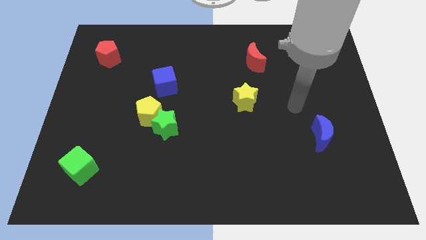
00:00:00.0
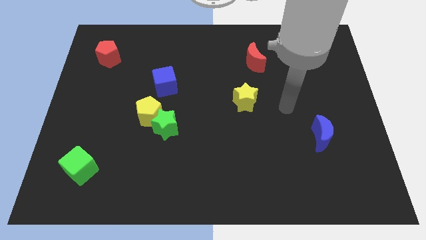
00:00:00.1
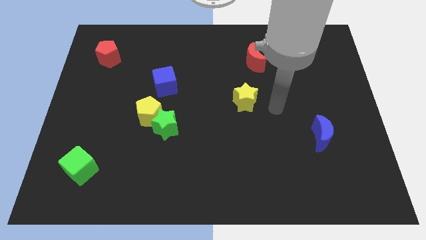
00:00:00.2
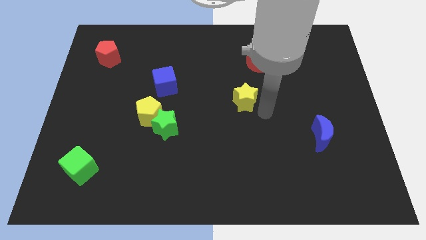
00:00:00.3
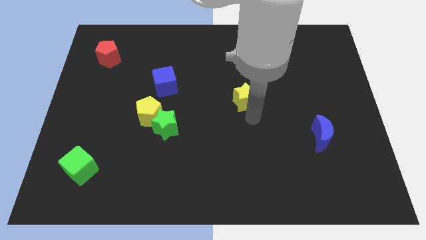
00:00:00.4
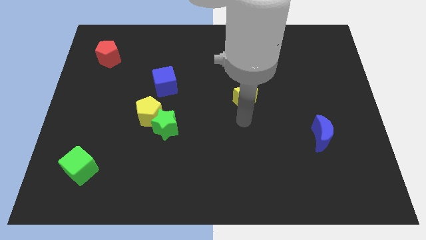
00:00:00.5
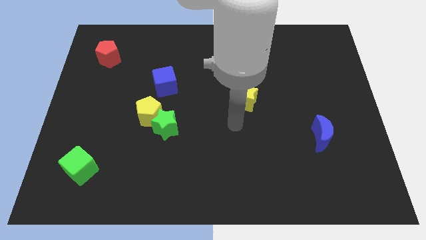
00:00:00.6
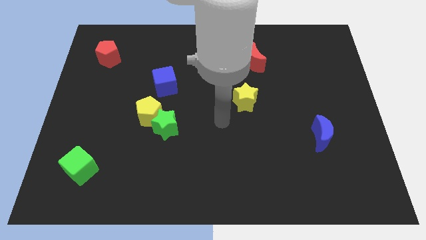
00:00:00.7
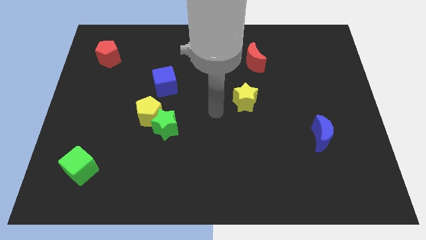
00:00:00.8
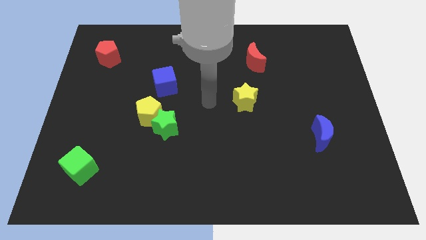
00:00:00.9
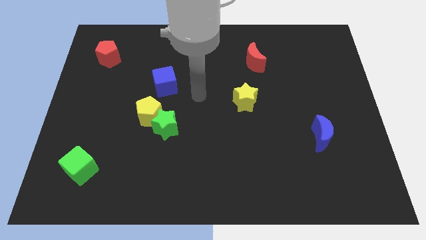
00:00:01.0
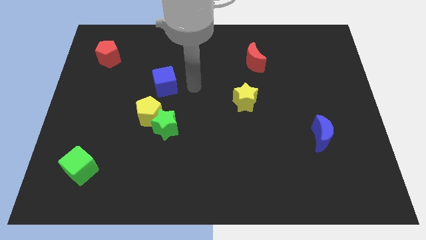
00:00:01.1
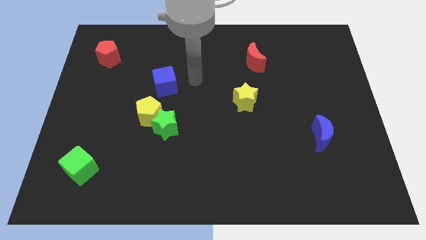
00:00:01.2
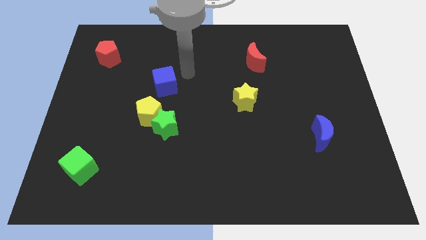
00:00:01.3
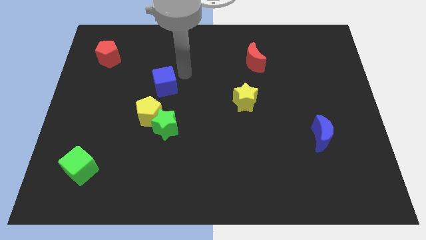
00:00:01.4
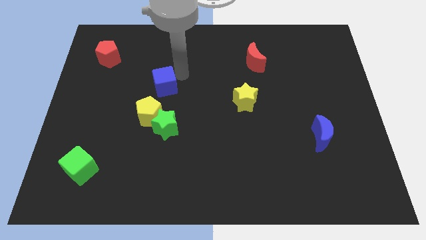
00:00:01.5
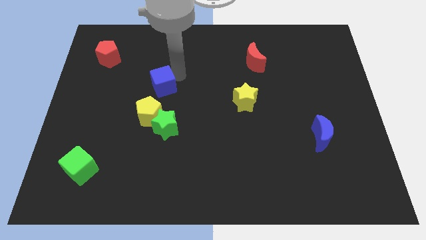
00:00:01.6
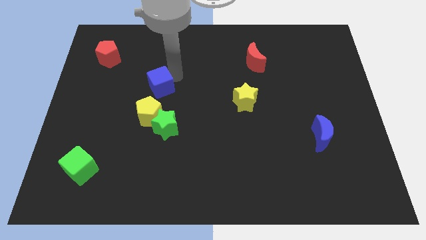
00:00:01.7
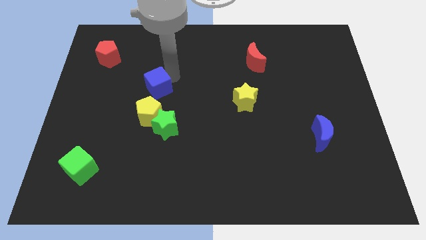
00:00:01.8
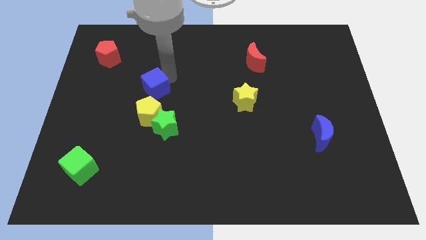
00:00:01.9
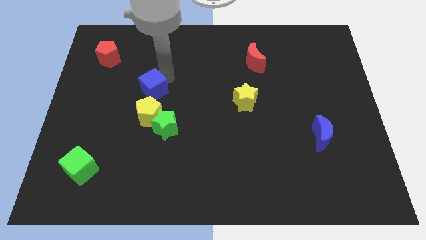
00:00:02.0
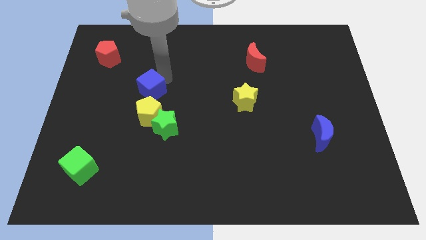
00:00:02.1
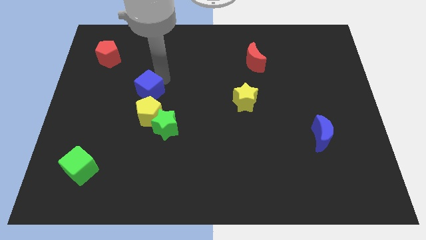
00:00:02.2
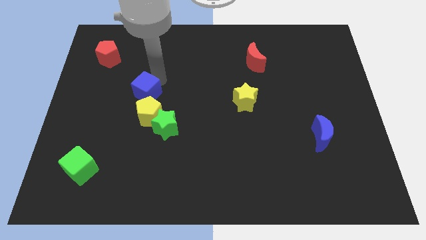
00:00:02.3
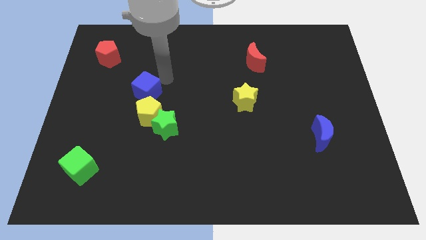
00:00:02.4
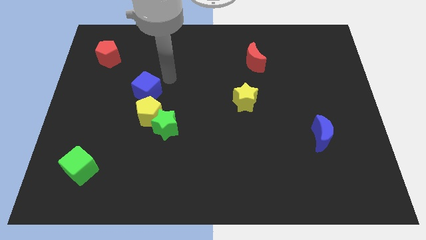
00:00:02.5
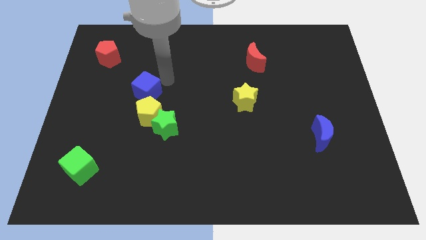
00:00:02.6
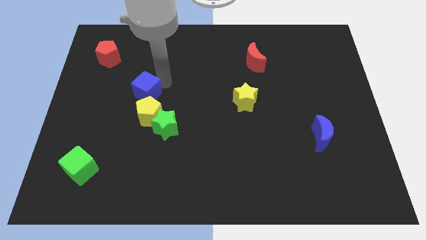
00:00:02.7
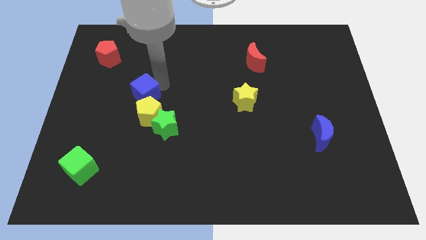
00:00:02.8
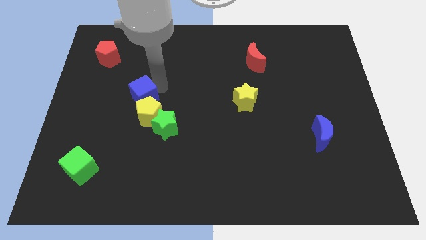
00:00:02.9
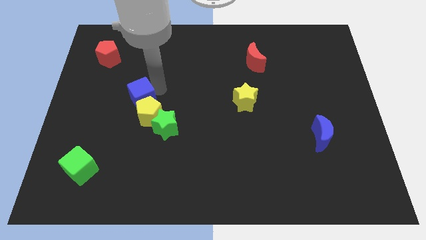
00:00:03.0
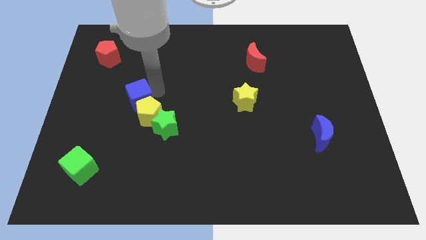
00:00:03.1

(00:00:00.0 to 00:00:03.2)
slightly push the blue cube down and to the left diagonally

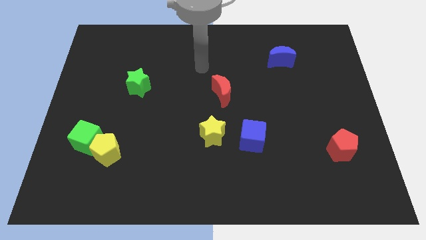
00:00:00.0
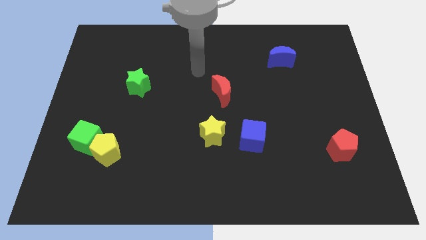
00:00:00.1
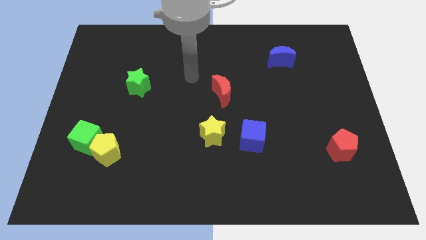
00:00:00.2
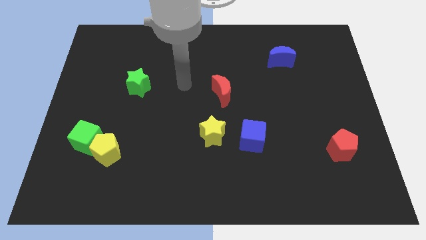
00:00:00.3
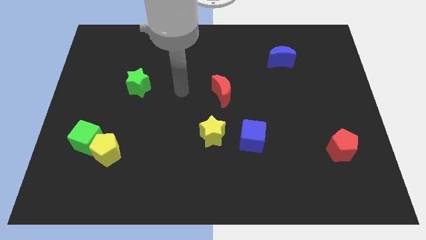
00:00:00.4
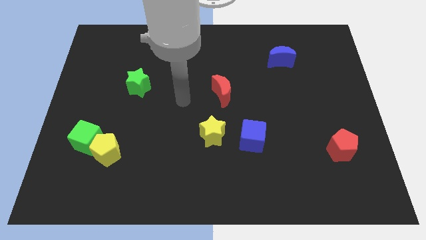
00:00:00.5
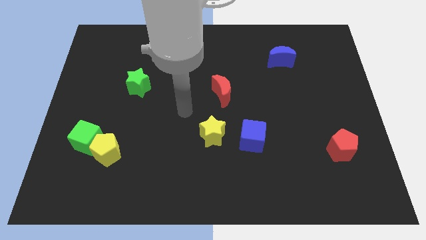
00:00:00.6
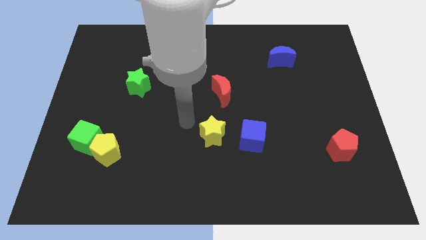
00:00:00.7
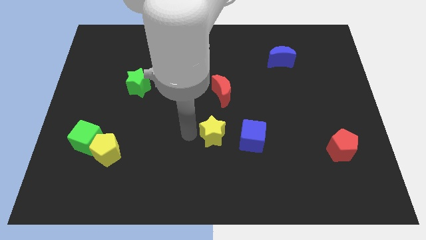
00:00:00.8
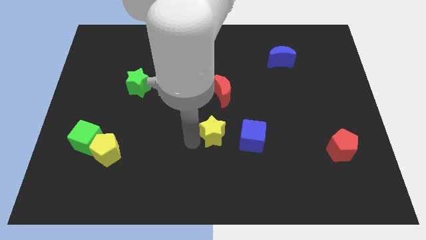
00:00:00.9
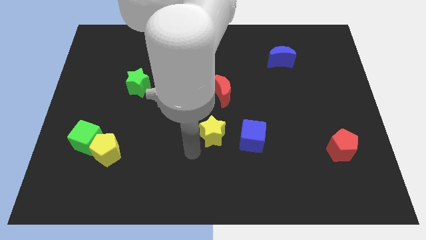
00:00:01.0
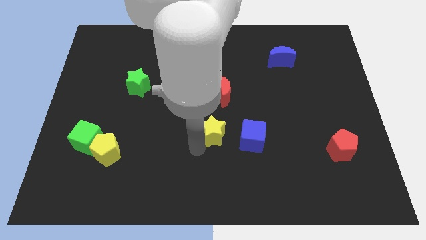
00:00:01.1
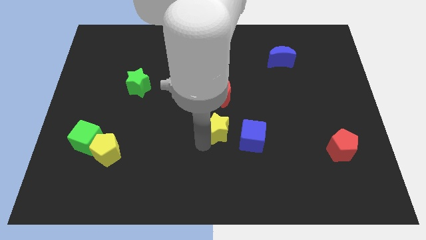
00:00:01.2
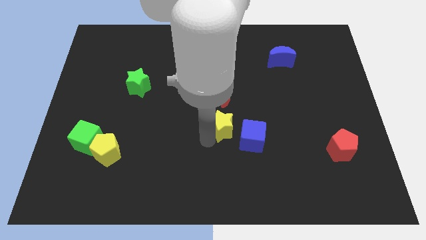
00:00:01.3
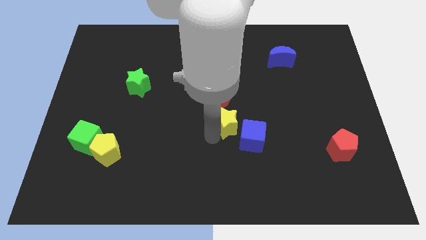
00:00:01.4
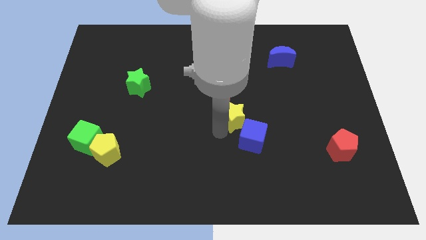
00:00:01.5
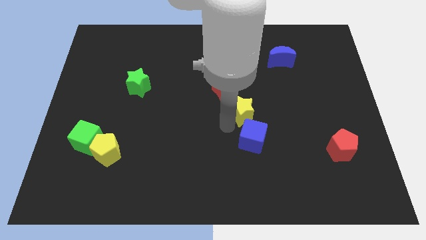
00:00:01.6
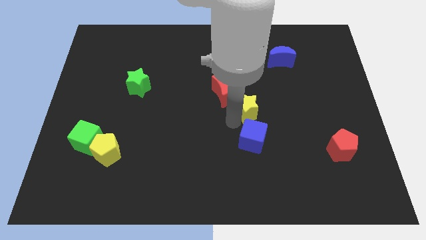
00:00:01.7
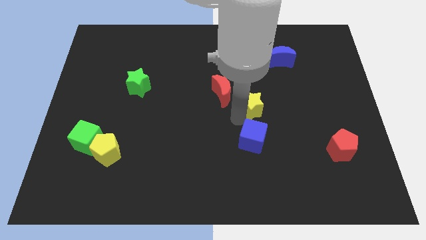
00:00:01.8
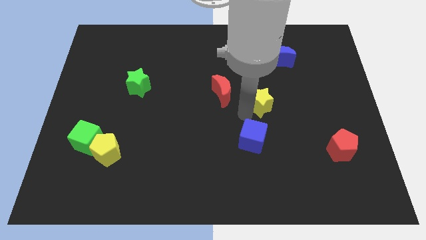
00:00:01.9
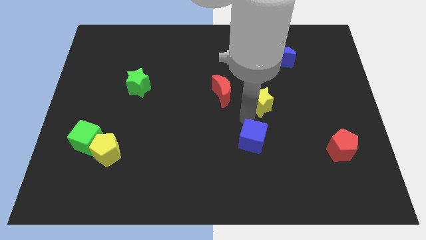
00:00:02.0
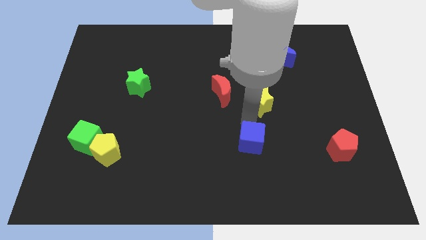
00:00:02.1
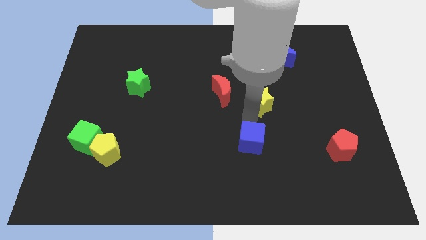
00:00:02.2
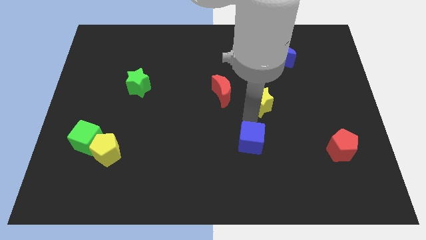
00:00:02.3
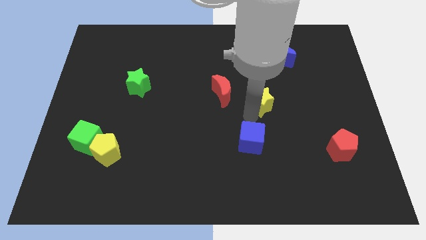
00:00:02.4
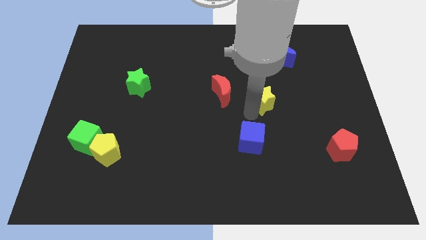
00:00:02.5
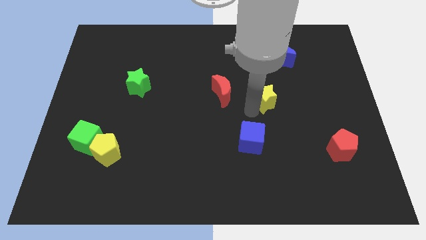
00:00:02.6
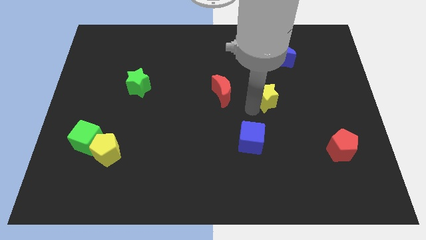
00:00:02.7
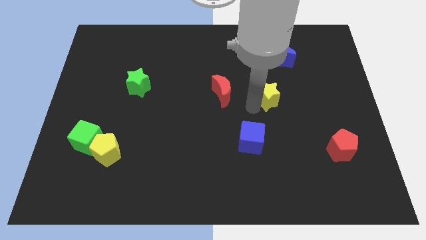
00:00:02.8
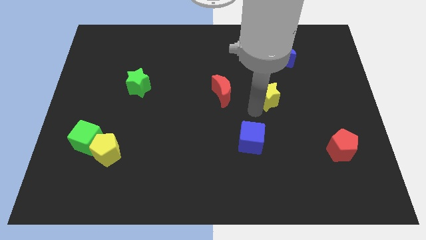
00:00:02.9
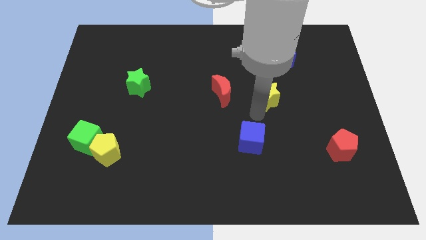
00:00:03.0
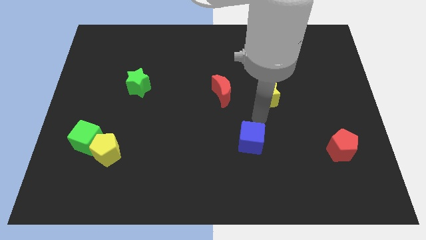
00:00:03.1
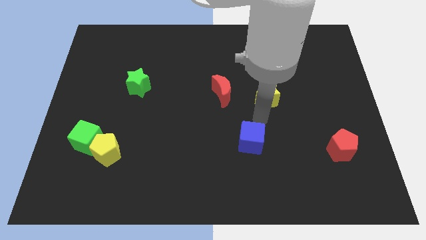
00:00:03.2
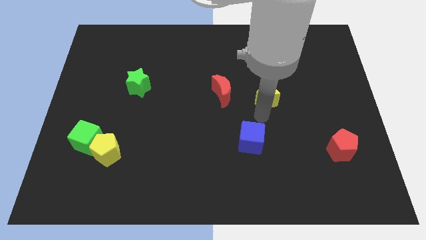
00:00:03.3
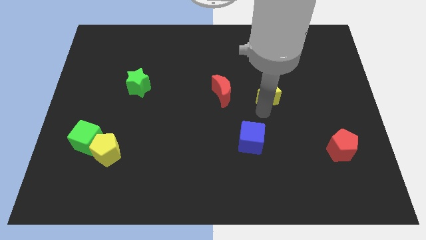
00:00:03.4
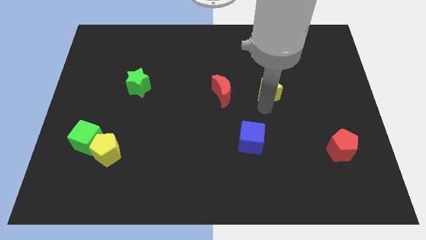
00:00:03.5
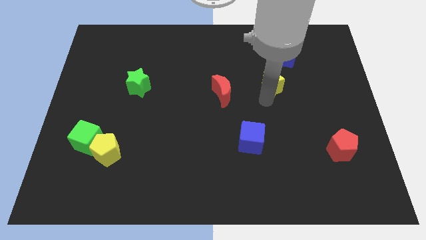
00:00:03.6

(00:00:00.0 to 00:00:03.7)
push the yellow star upwards and then to the right

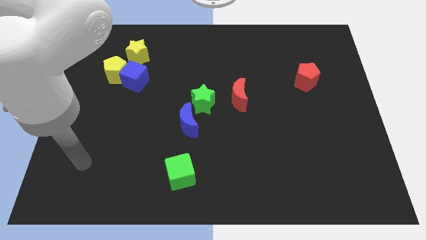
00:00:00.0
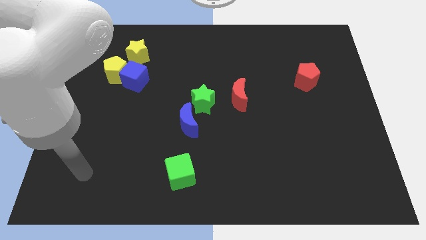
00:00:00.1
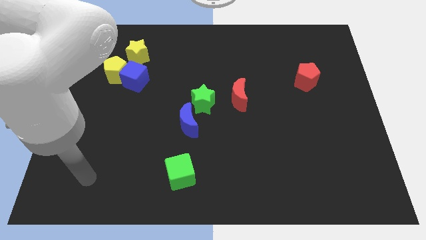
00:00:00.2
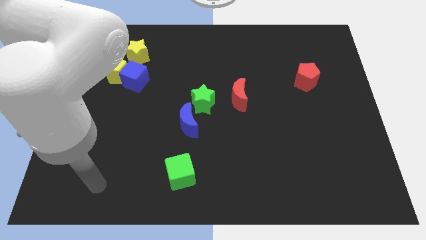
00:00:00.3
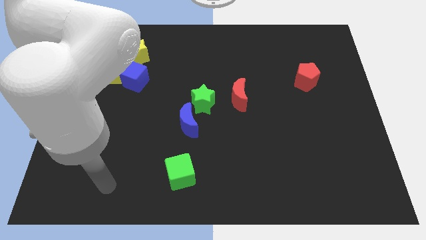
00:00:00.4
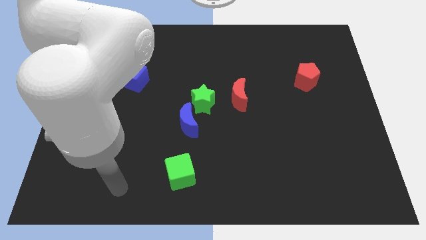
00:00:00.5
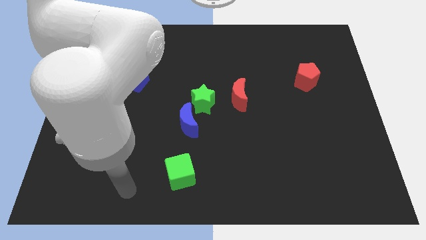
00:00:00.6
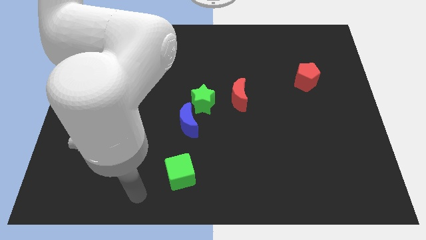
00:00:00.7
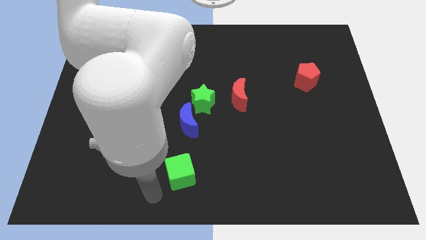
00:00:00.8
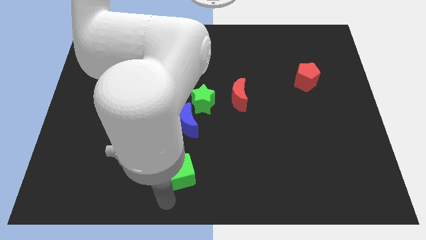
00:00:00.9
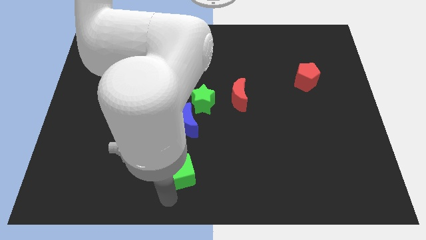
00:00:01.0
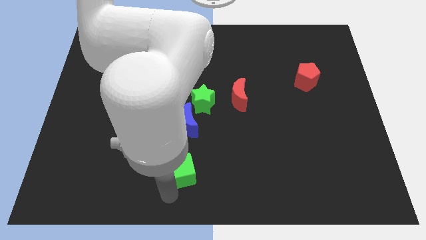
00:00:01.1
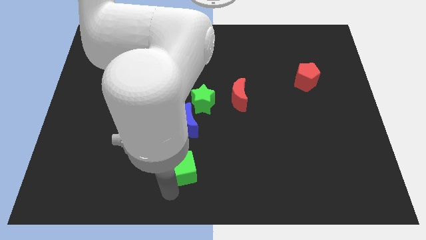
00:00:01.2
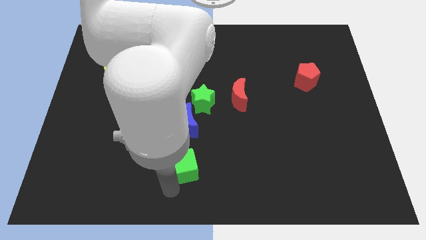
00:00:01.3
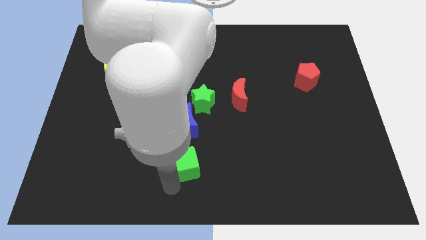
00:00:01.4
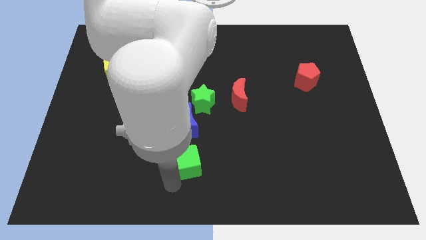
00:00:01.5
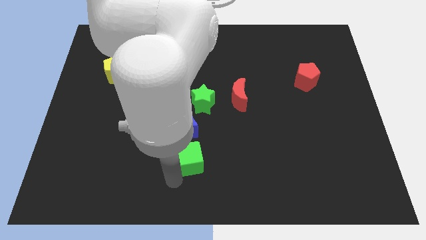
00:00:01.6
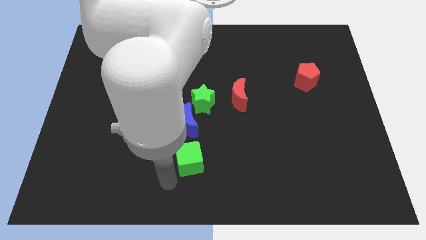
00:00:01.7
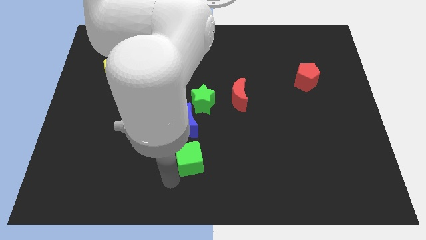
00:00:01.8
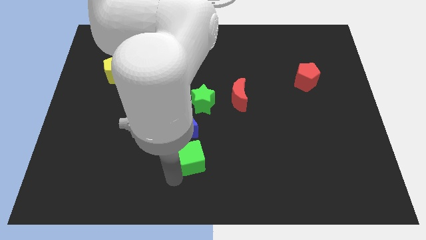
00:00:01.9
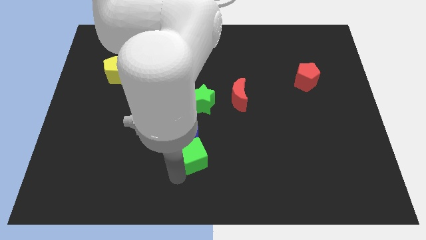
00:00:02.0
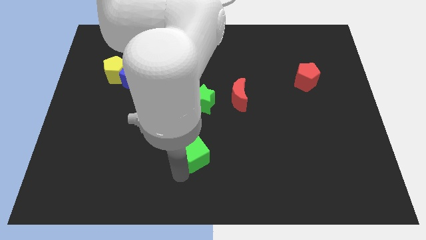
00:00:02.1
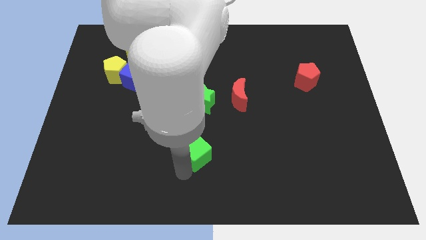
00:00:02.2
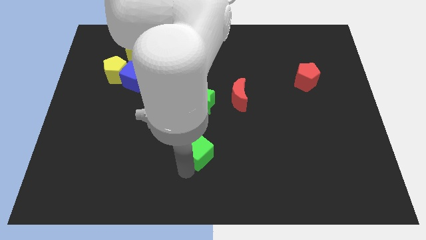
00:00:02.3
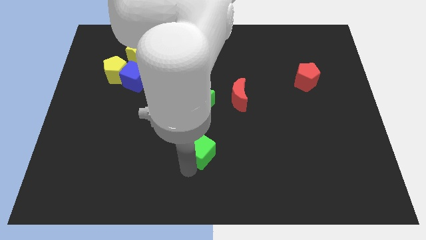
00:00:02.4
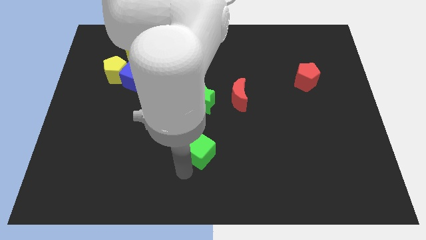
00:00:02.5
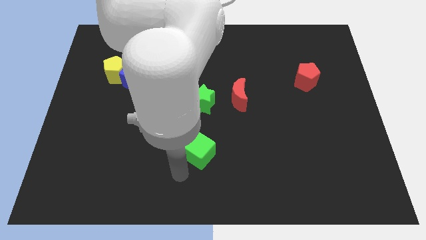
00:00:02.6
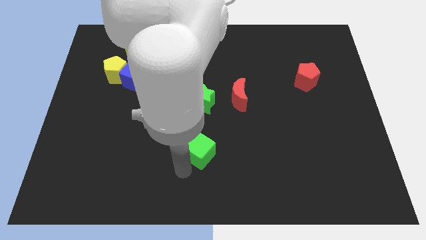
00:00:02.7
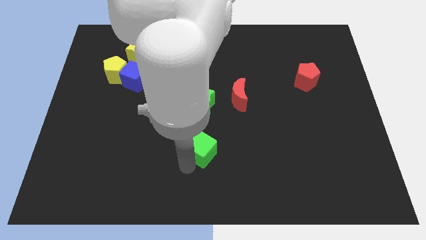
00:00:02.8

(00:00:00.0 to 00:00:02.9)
move the green cube diagonally upwards and to the right slightly
